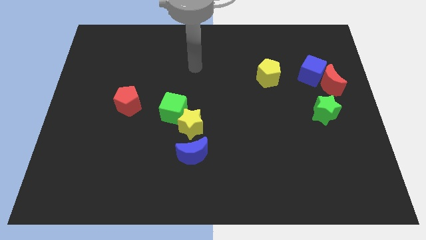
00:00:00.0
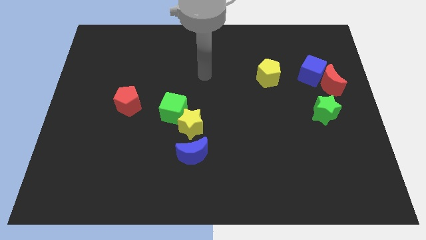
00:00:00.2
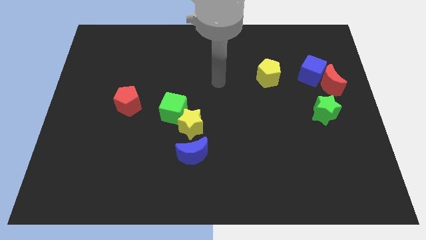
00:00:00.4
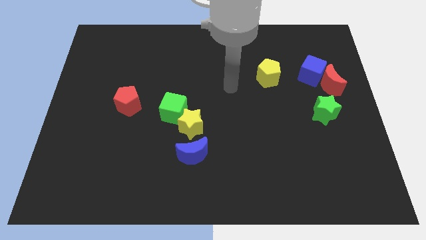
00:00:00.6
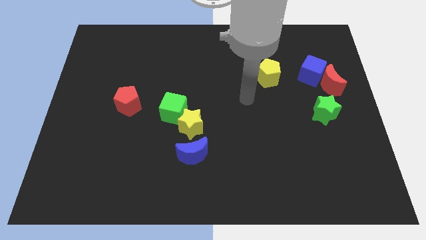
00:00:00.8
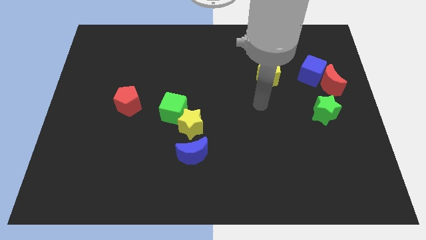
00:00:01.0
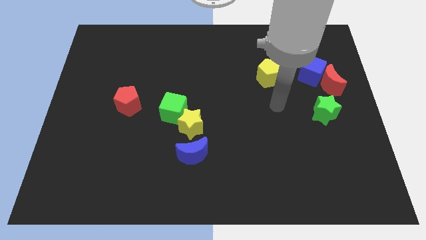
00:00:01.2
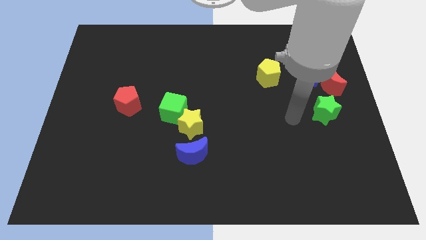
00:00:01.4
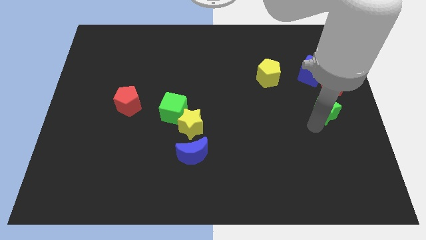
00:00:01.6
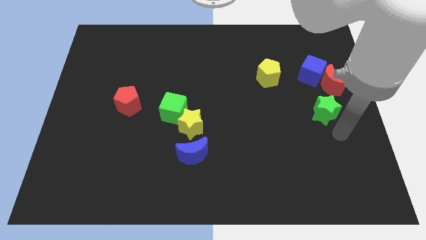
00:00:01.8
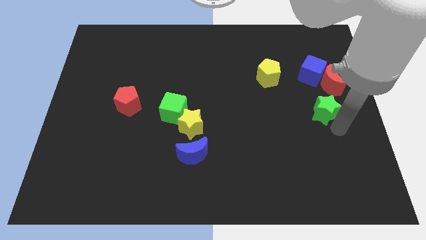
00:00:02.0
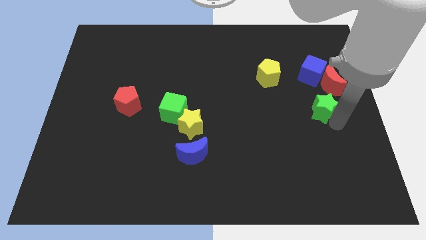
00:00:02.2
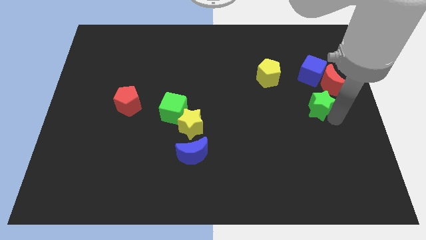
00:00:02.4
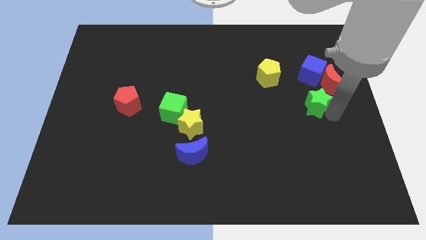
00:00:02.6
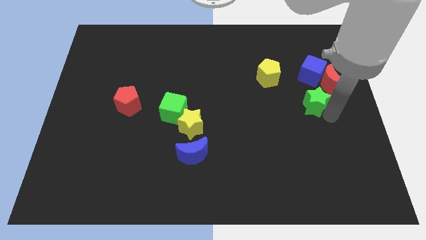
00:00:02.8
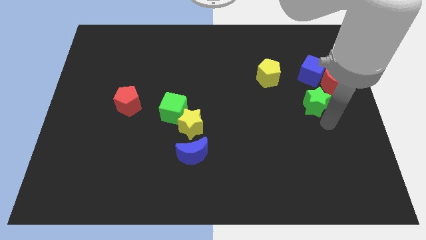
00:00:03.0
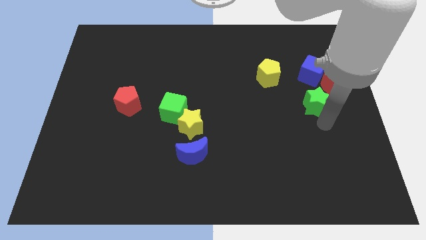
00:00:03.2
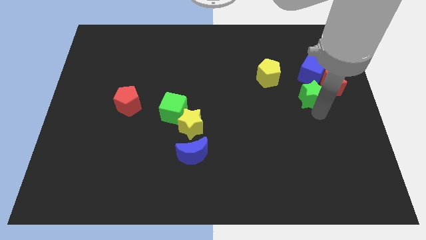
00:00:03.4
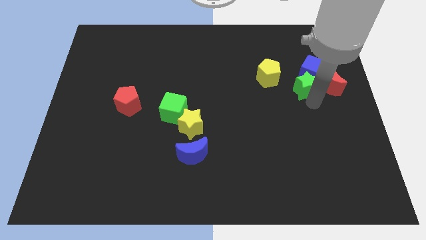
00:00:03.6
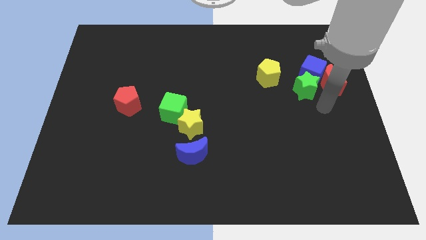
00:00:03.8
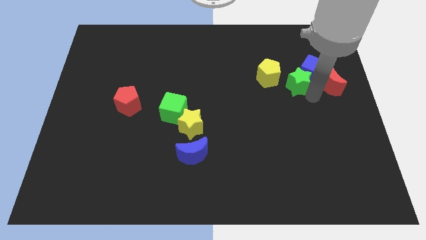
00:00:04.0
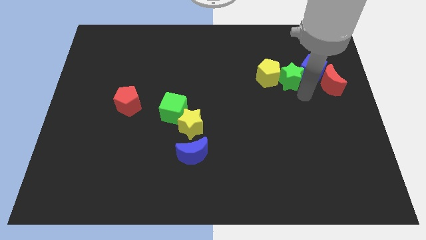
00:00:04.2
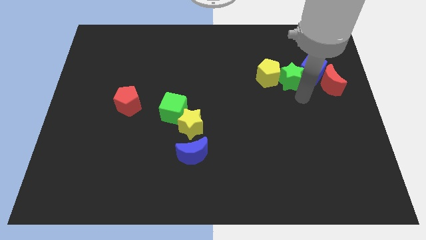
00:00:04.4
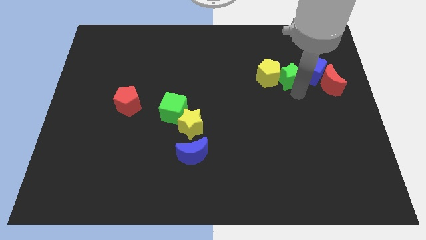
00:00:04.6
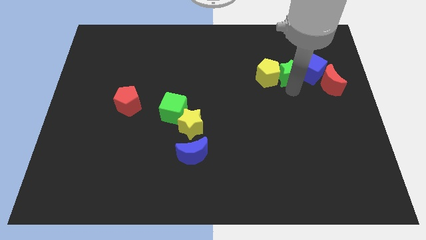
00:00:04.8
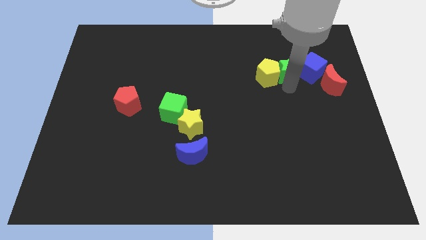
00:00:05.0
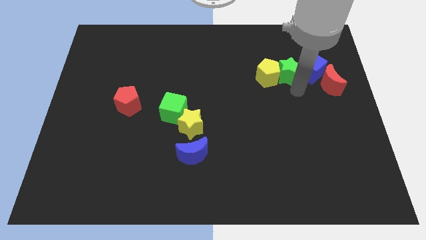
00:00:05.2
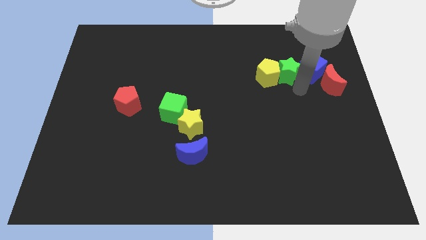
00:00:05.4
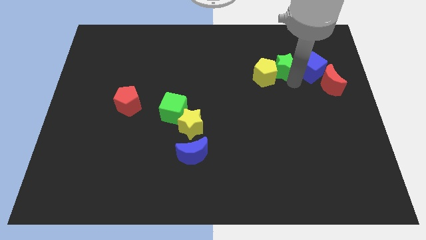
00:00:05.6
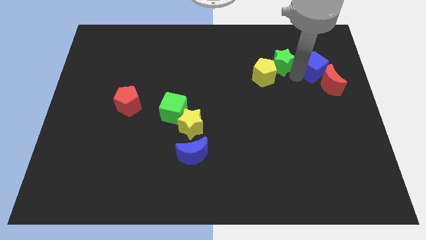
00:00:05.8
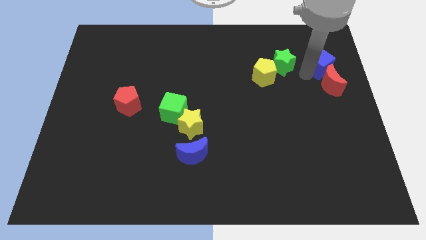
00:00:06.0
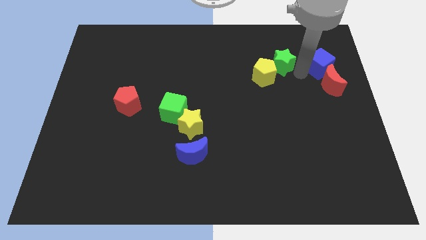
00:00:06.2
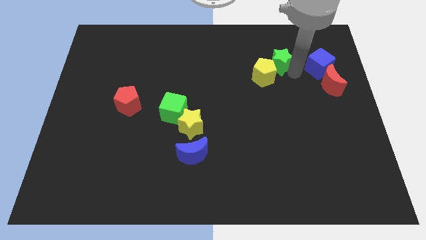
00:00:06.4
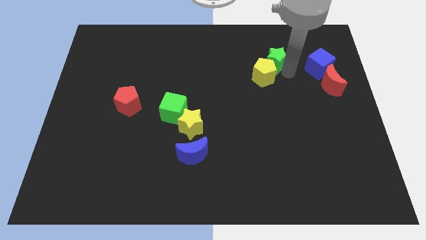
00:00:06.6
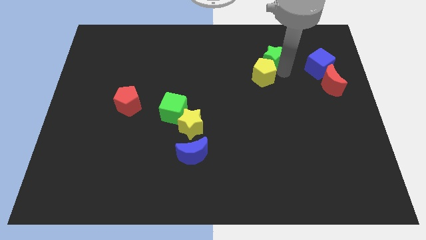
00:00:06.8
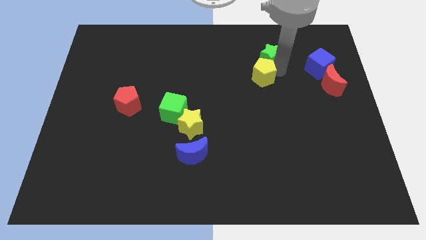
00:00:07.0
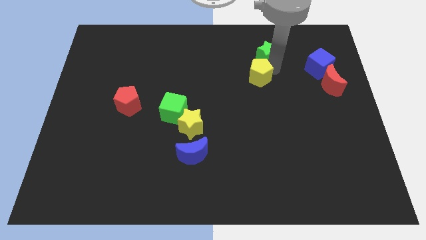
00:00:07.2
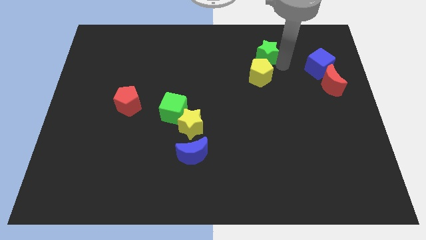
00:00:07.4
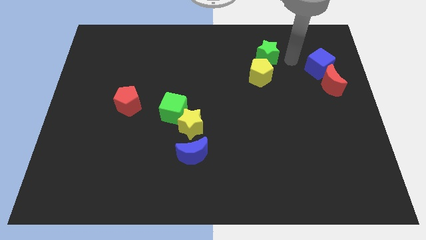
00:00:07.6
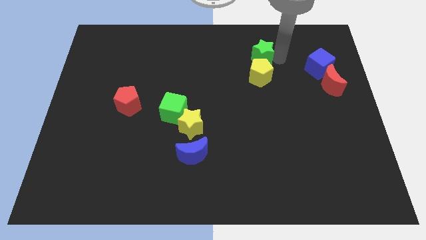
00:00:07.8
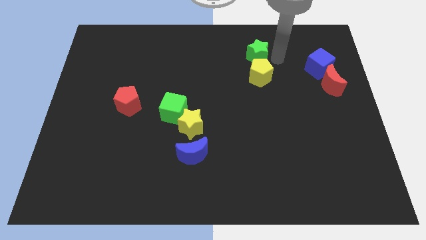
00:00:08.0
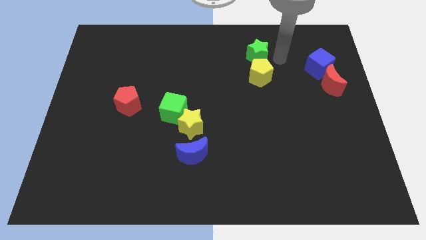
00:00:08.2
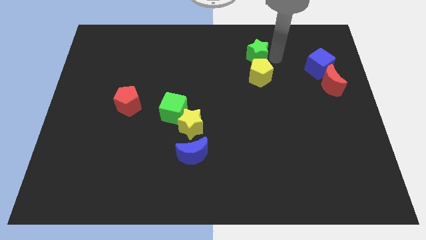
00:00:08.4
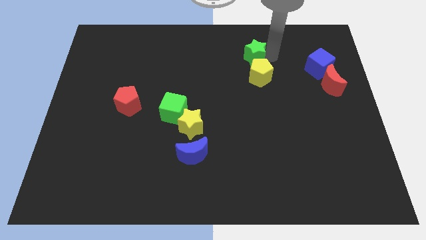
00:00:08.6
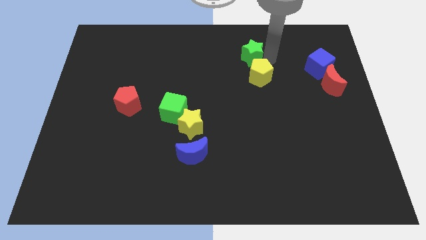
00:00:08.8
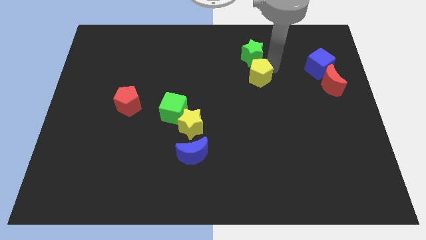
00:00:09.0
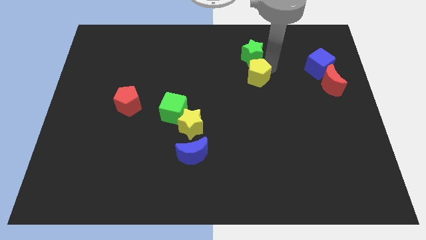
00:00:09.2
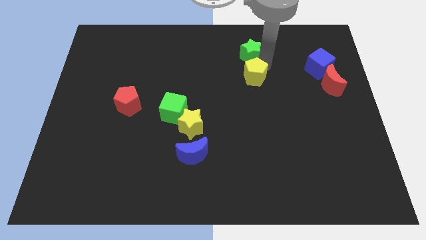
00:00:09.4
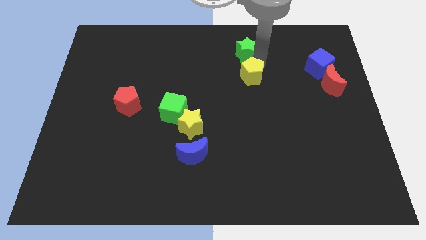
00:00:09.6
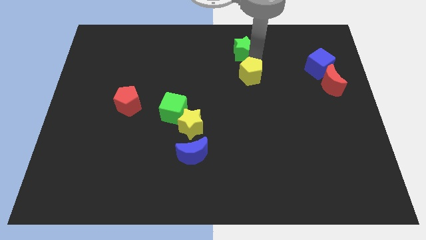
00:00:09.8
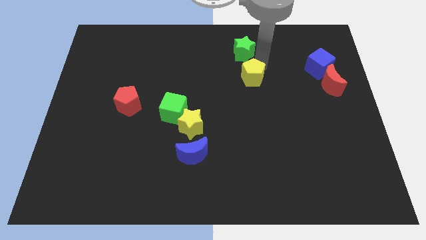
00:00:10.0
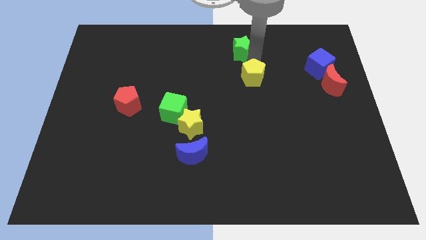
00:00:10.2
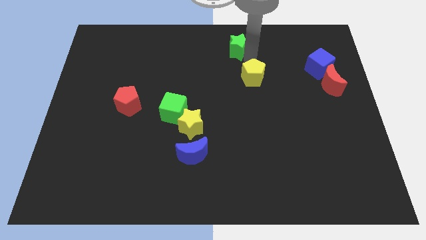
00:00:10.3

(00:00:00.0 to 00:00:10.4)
put the green star to the top side
